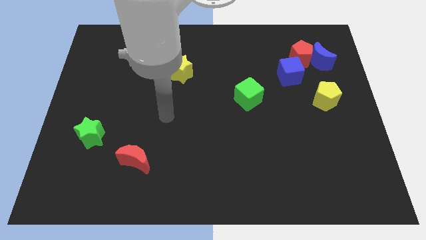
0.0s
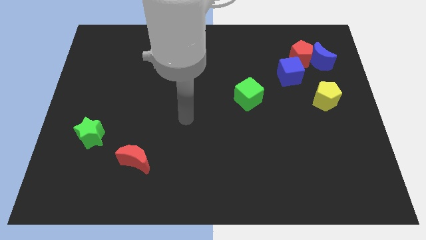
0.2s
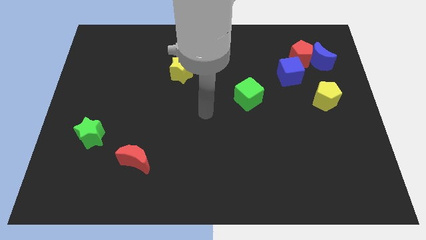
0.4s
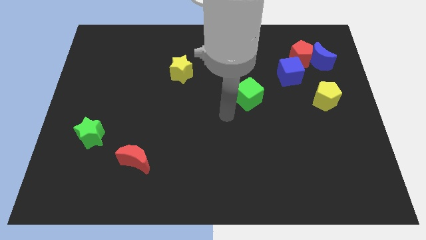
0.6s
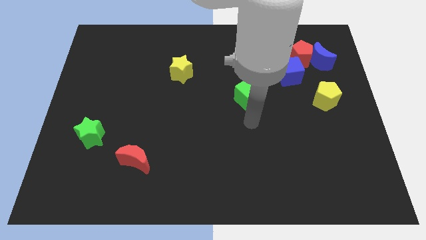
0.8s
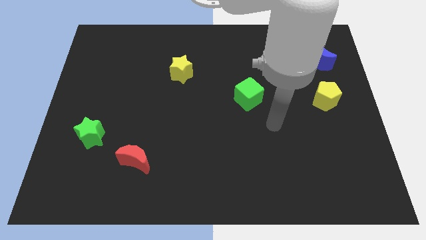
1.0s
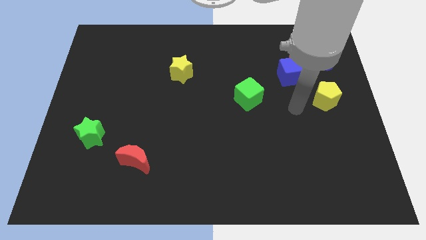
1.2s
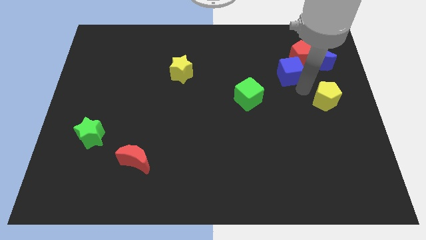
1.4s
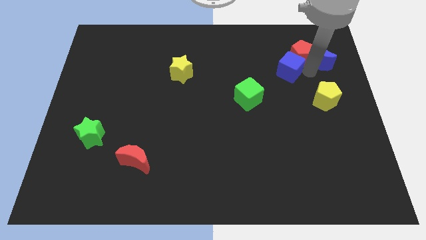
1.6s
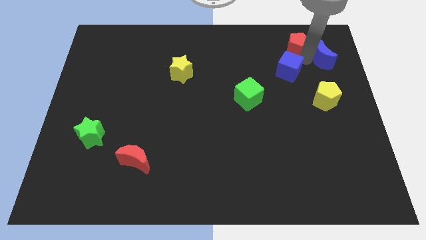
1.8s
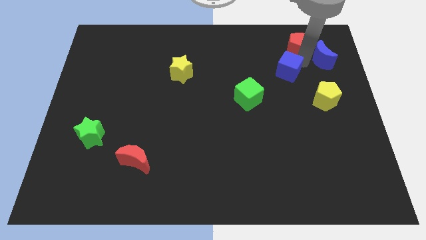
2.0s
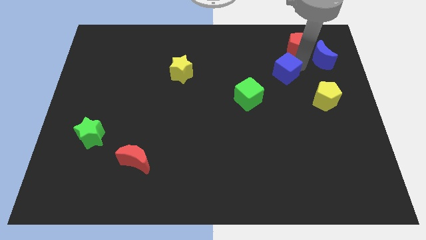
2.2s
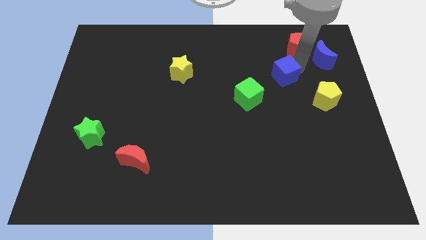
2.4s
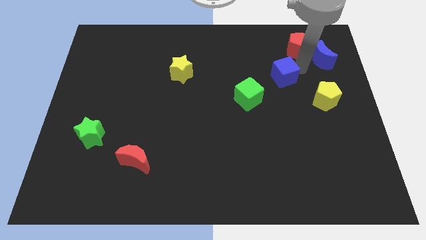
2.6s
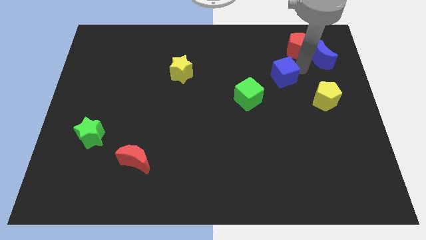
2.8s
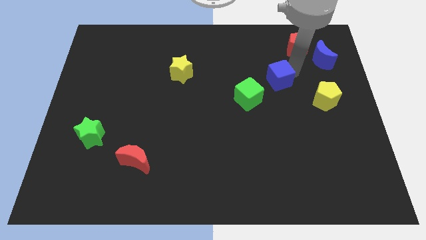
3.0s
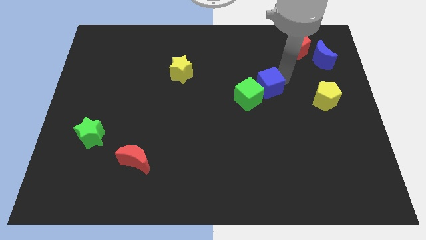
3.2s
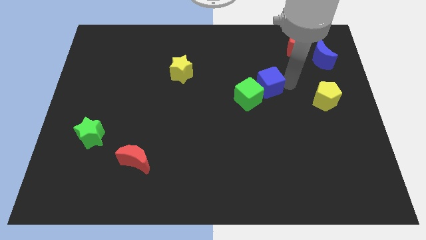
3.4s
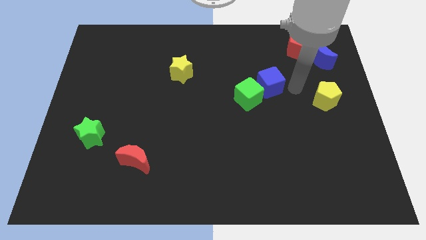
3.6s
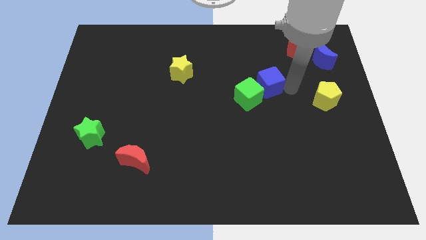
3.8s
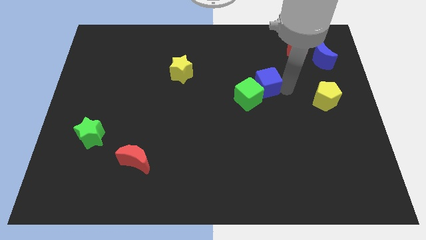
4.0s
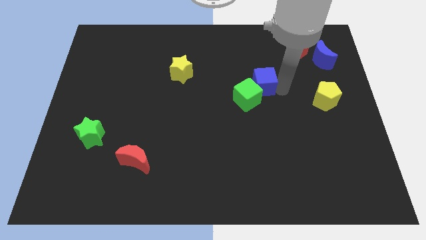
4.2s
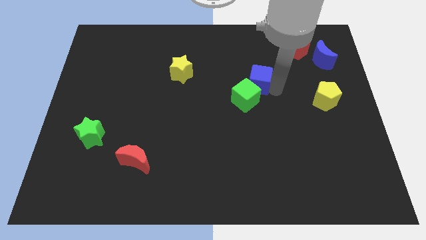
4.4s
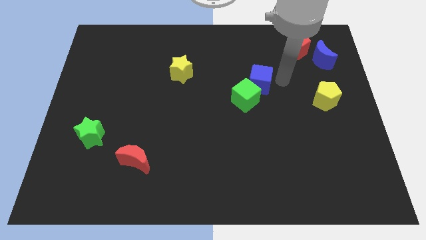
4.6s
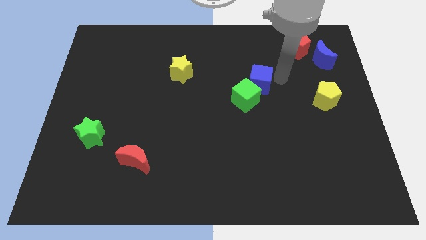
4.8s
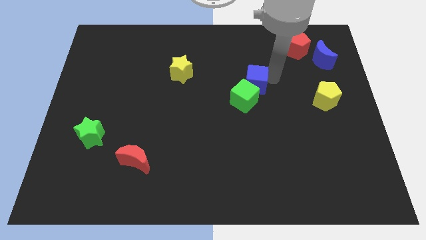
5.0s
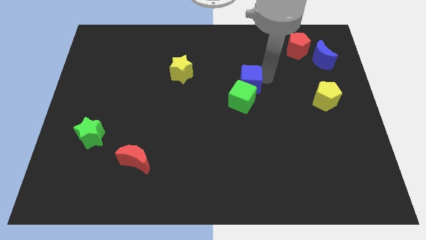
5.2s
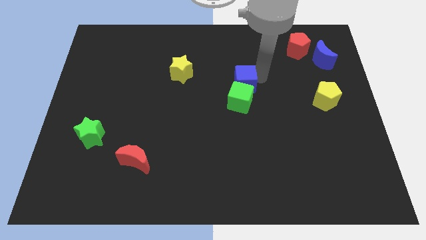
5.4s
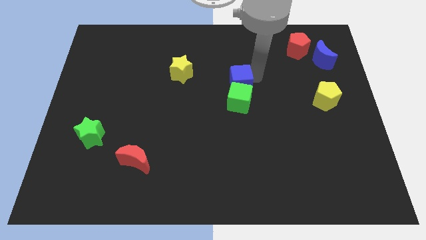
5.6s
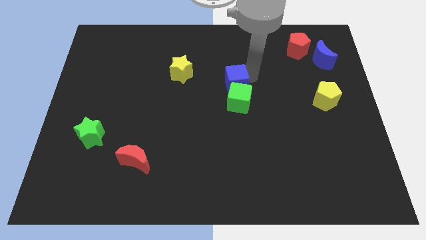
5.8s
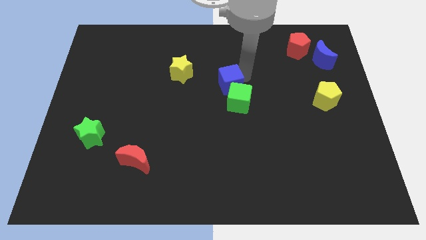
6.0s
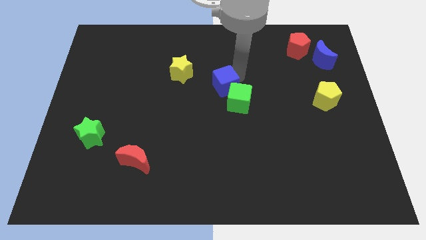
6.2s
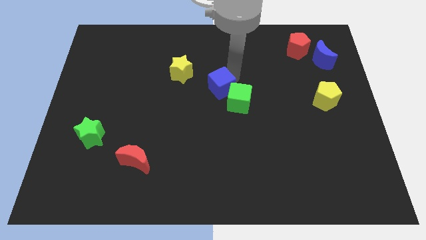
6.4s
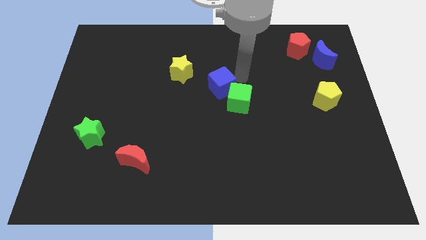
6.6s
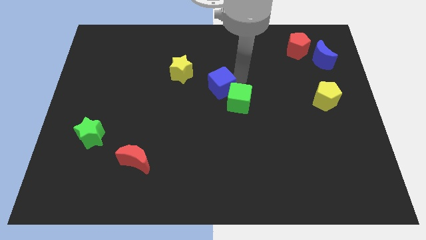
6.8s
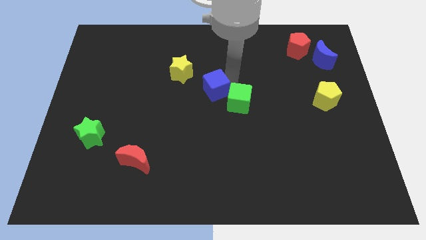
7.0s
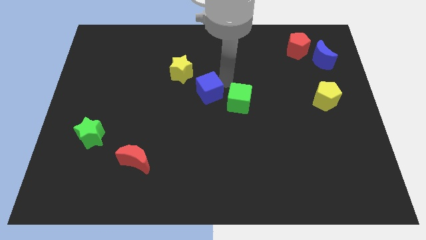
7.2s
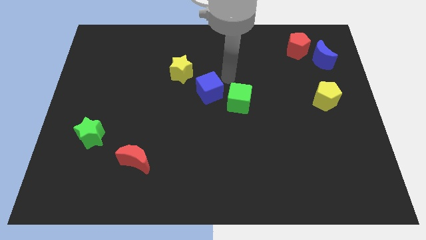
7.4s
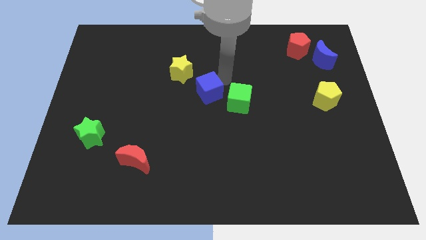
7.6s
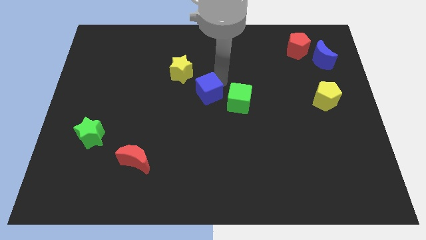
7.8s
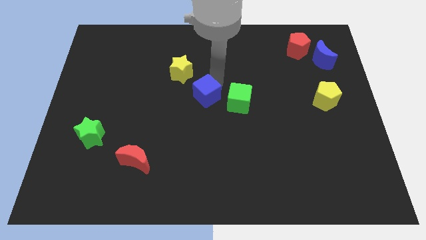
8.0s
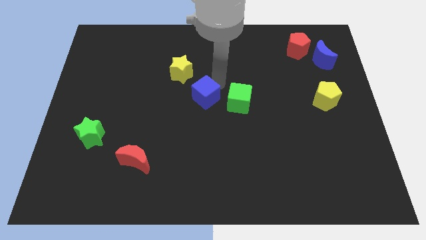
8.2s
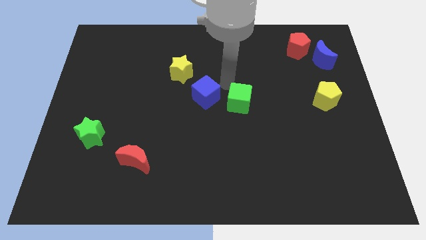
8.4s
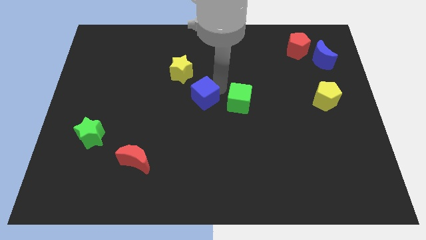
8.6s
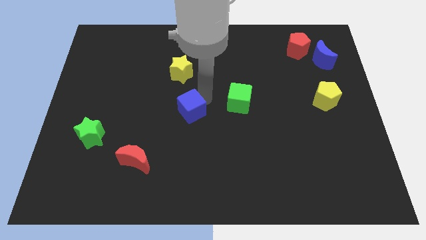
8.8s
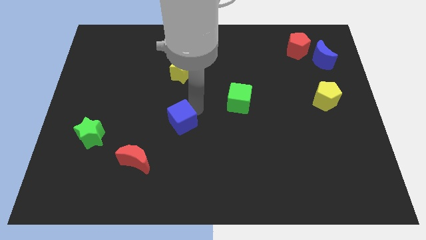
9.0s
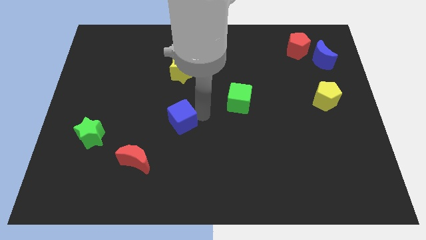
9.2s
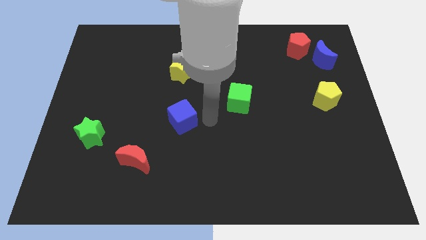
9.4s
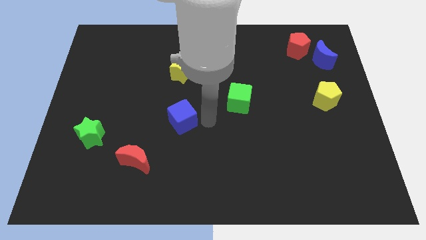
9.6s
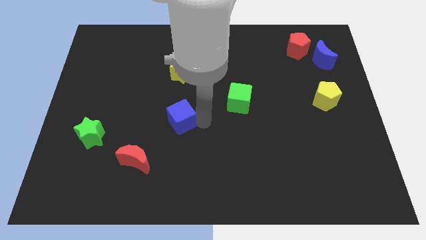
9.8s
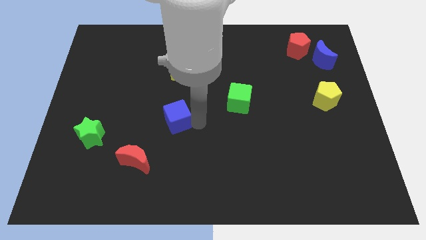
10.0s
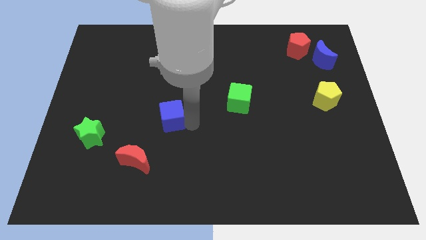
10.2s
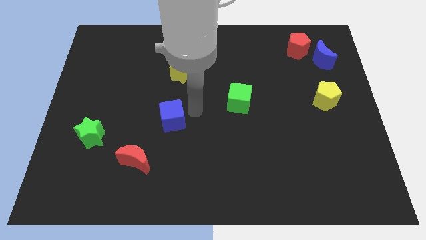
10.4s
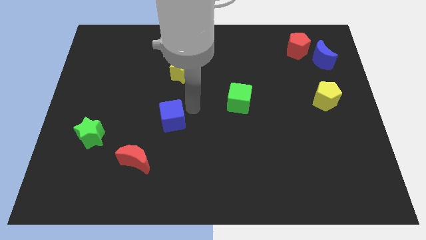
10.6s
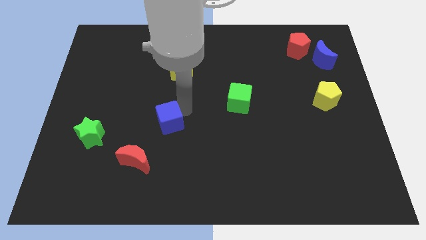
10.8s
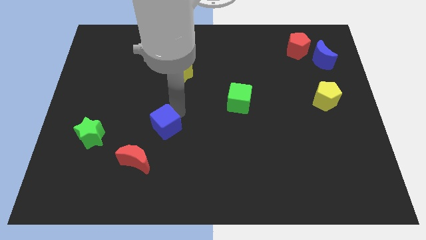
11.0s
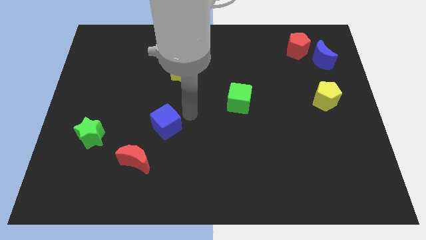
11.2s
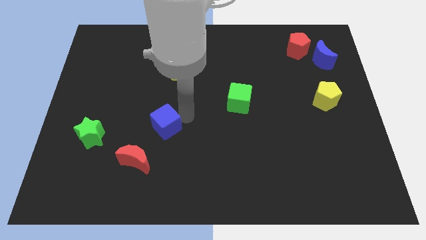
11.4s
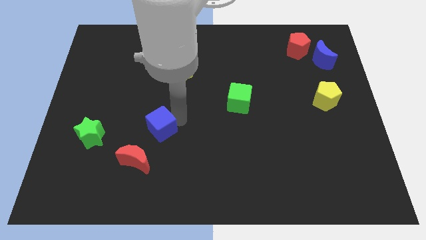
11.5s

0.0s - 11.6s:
put the blue cube right of the green star
